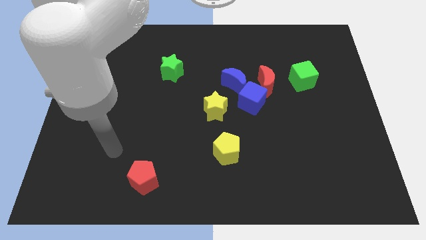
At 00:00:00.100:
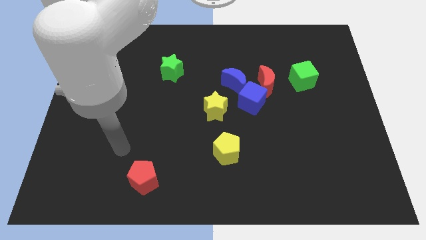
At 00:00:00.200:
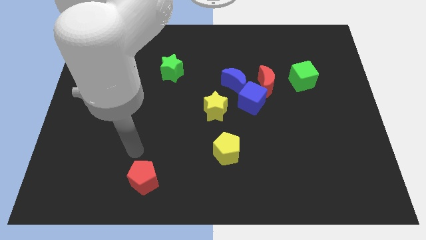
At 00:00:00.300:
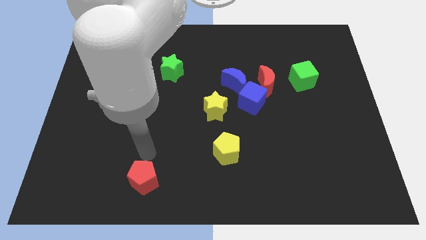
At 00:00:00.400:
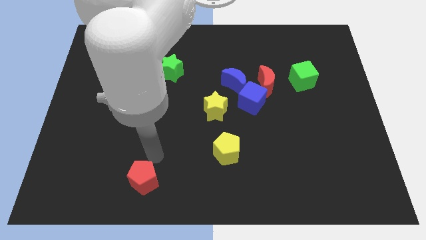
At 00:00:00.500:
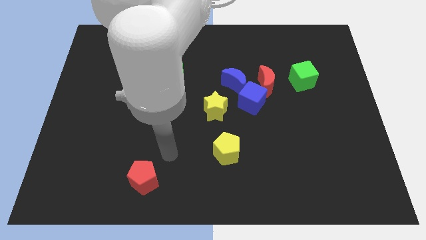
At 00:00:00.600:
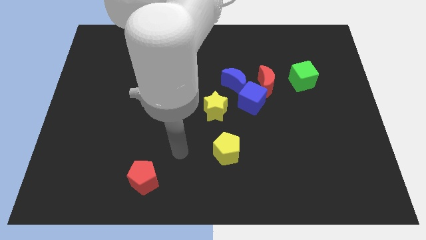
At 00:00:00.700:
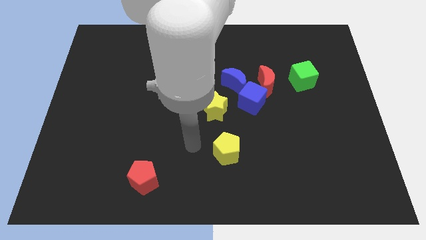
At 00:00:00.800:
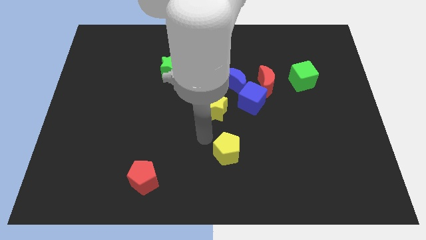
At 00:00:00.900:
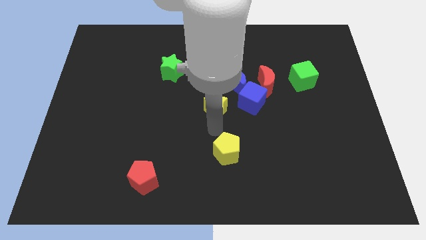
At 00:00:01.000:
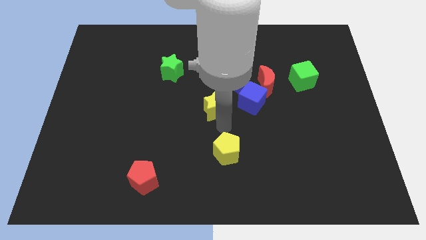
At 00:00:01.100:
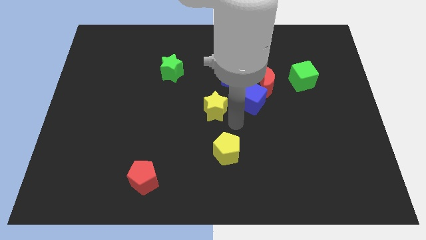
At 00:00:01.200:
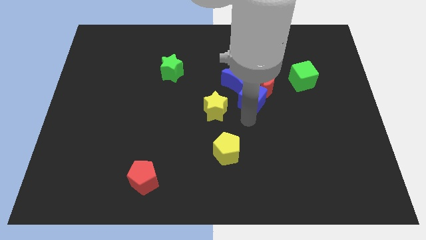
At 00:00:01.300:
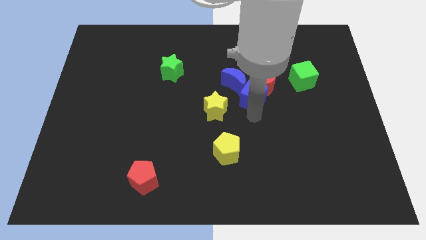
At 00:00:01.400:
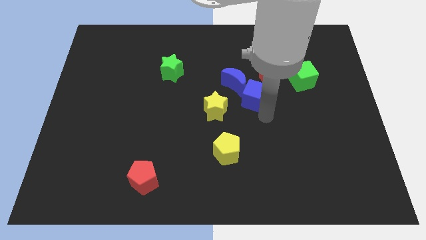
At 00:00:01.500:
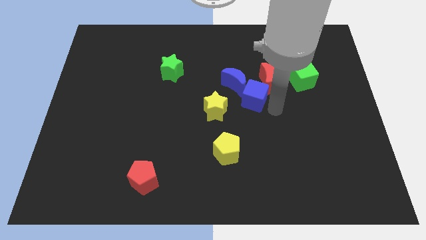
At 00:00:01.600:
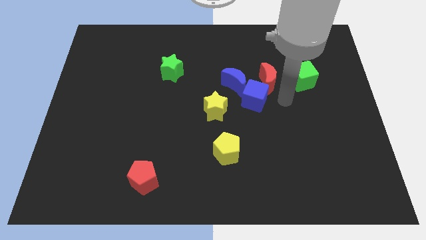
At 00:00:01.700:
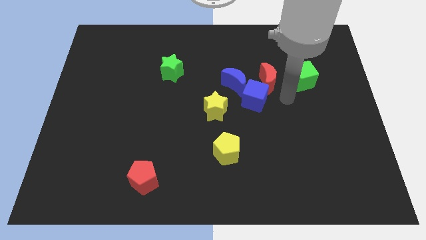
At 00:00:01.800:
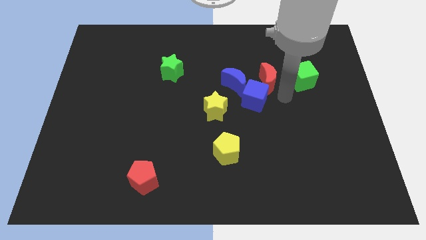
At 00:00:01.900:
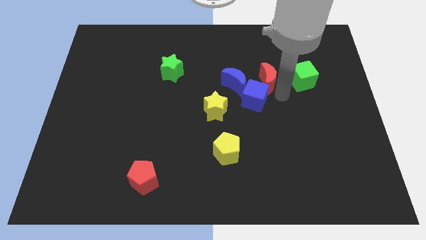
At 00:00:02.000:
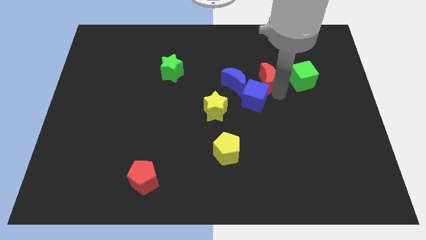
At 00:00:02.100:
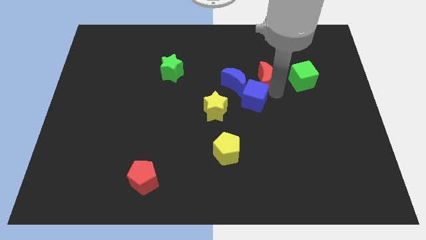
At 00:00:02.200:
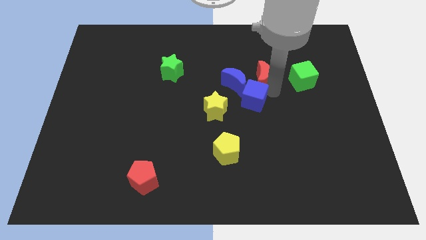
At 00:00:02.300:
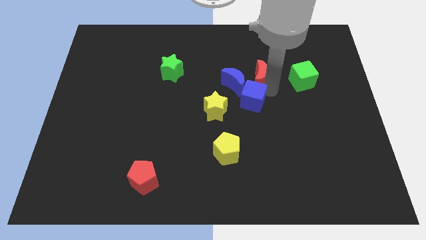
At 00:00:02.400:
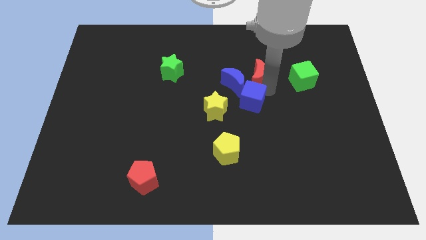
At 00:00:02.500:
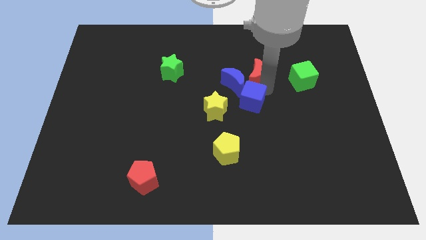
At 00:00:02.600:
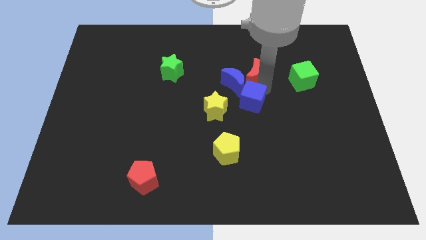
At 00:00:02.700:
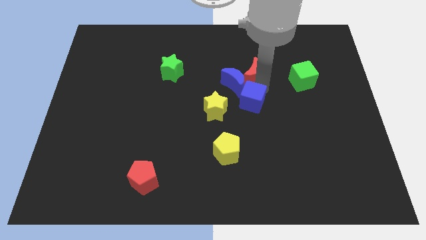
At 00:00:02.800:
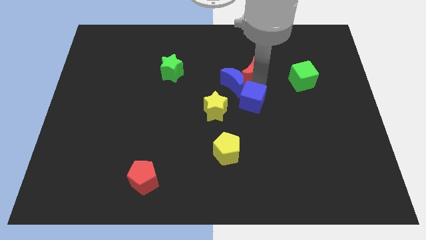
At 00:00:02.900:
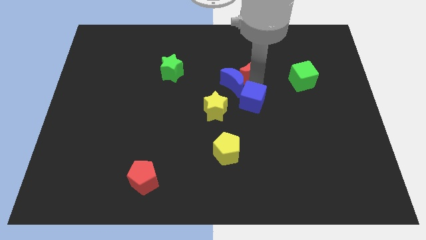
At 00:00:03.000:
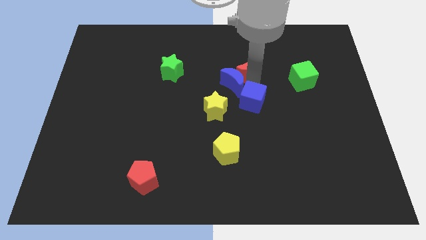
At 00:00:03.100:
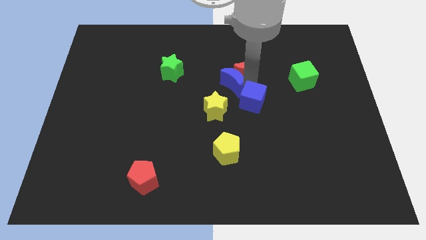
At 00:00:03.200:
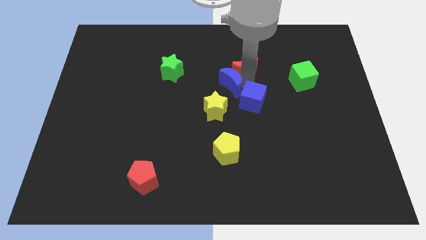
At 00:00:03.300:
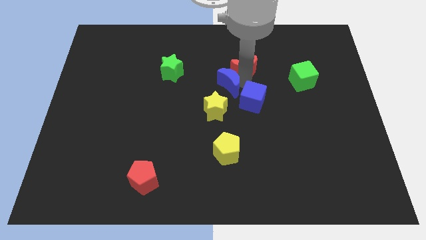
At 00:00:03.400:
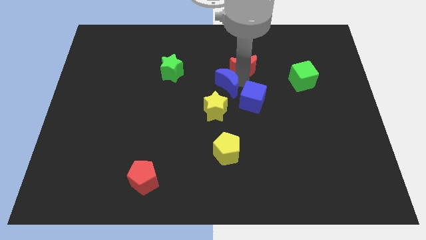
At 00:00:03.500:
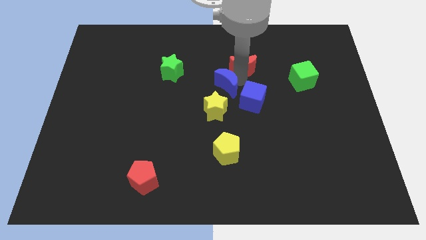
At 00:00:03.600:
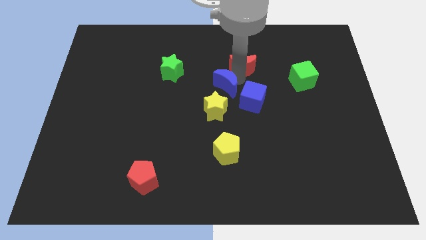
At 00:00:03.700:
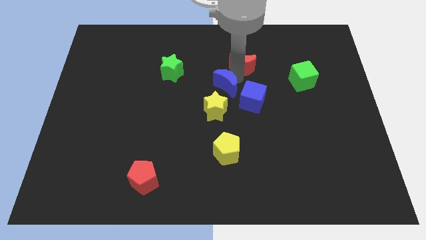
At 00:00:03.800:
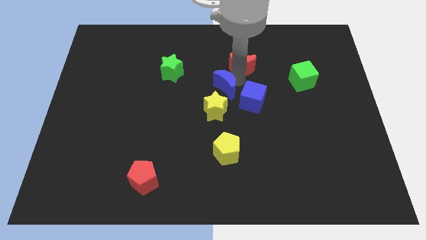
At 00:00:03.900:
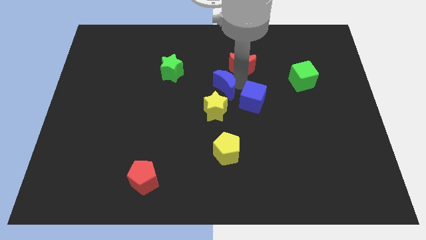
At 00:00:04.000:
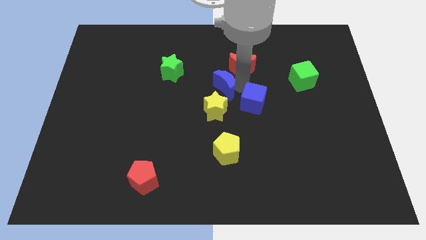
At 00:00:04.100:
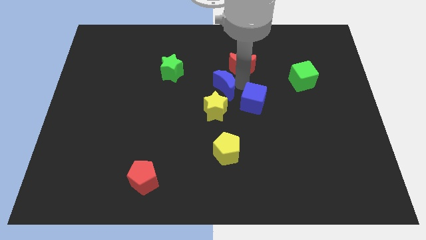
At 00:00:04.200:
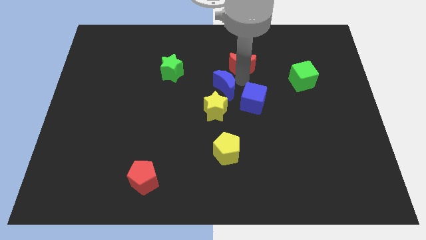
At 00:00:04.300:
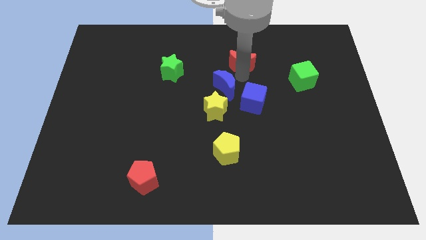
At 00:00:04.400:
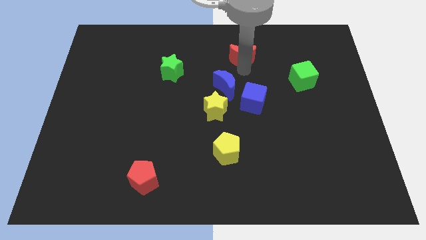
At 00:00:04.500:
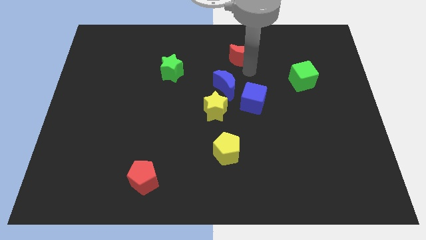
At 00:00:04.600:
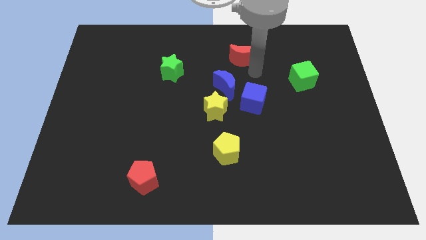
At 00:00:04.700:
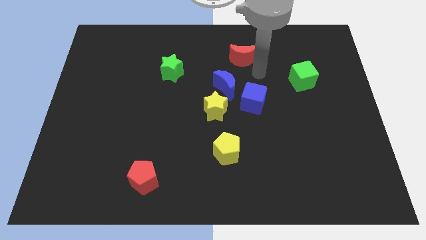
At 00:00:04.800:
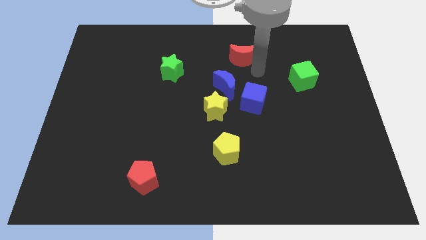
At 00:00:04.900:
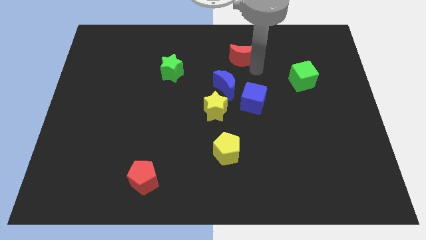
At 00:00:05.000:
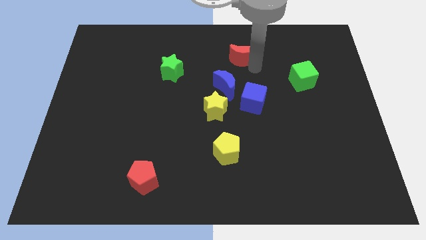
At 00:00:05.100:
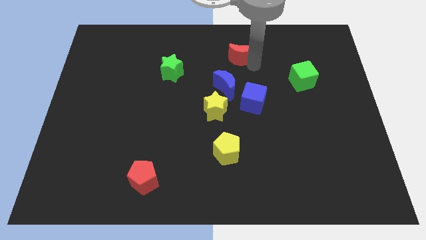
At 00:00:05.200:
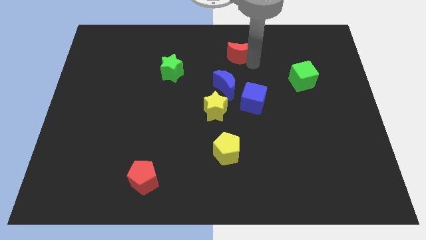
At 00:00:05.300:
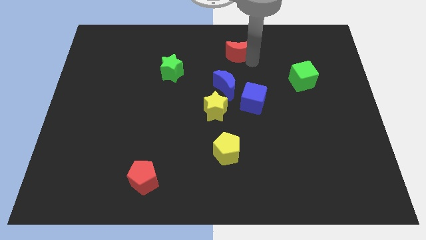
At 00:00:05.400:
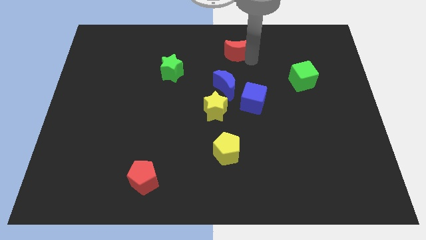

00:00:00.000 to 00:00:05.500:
move the red moon to the top

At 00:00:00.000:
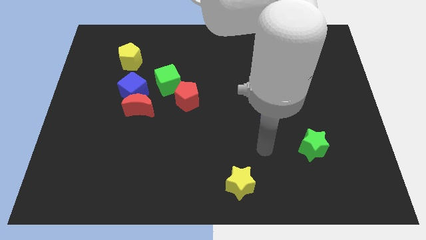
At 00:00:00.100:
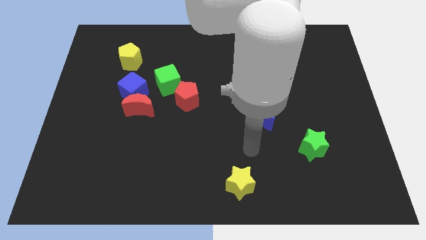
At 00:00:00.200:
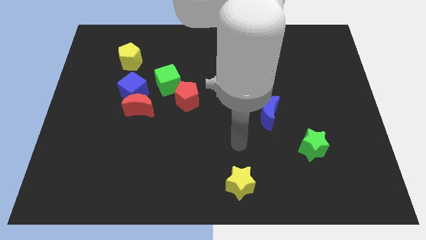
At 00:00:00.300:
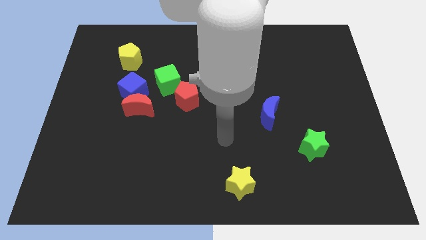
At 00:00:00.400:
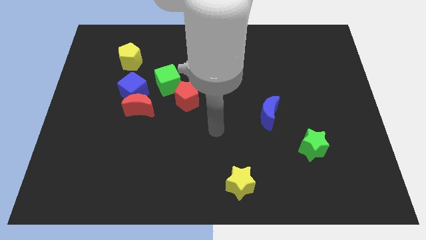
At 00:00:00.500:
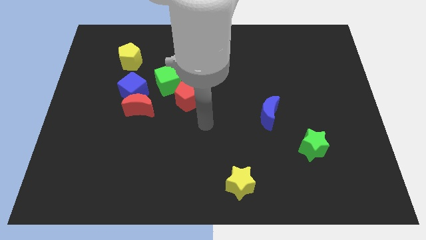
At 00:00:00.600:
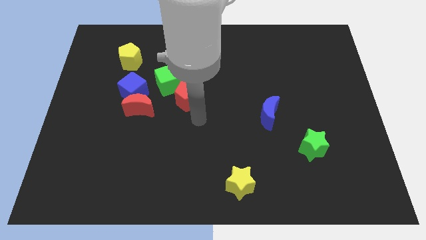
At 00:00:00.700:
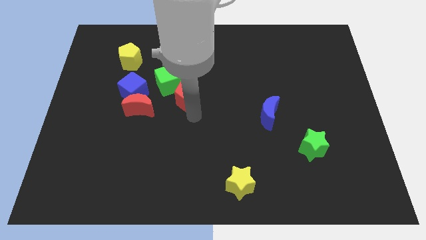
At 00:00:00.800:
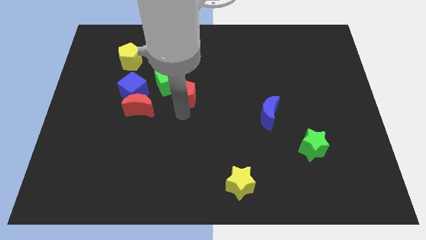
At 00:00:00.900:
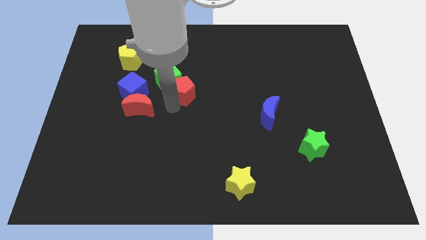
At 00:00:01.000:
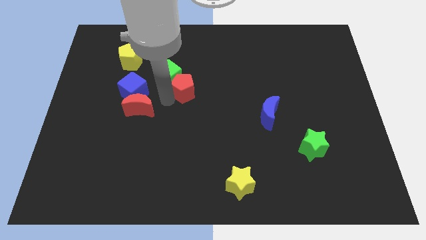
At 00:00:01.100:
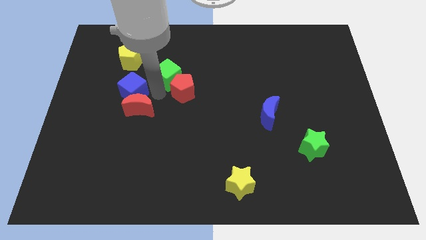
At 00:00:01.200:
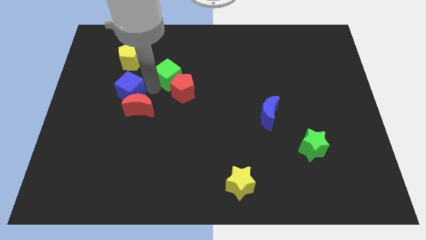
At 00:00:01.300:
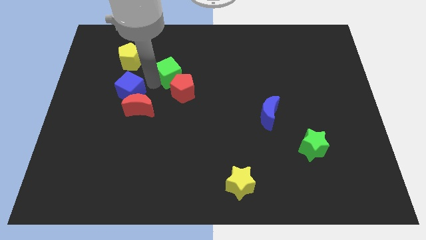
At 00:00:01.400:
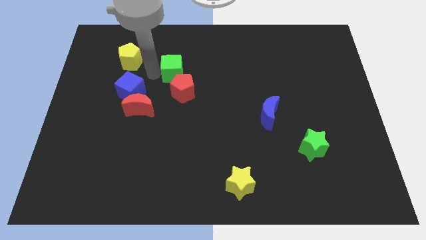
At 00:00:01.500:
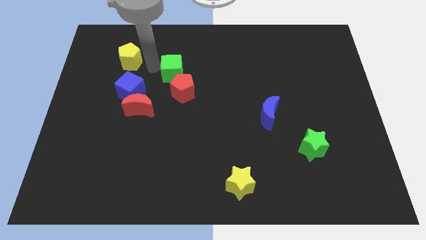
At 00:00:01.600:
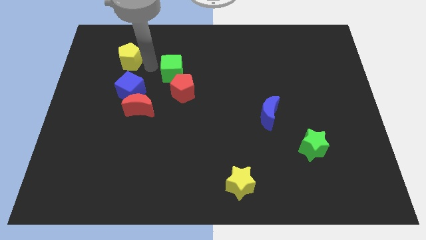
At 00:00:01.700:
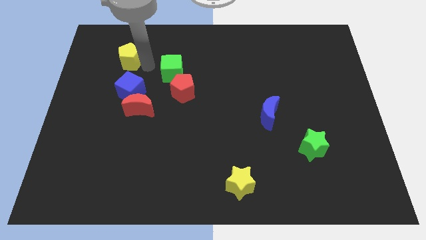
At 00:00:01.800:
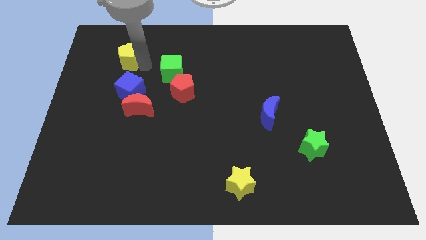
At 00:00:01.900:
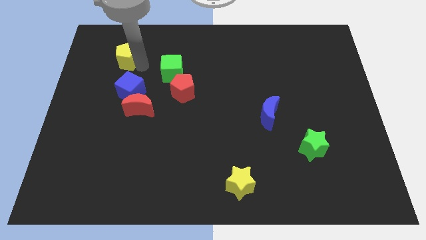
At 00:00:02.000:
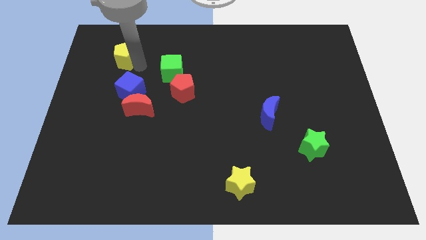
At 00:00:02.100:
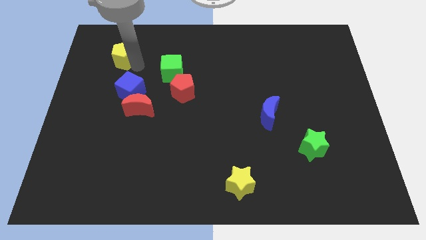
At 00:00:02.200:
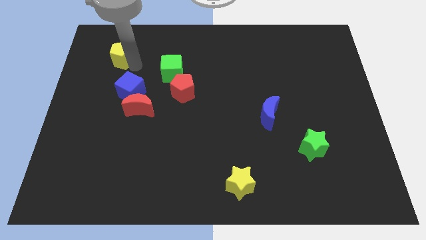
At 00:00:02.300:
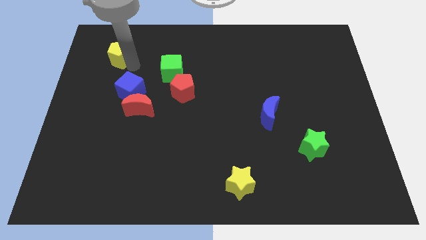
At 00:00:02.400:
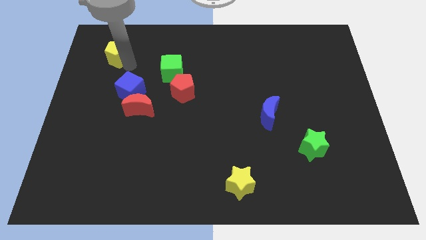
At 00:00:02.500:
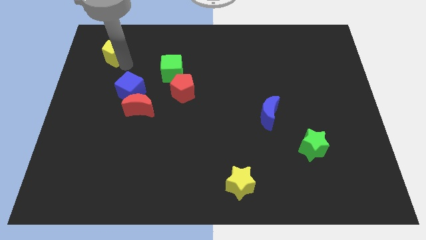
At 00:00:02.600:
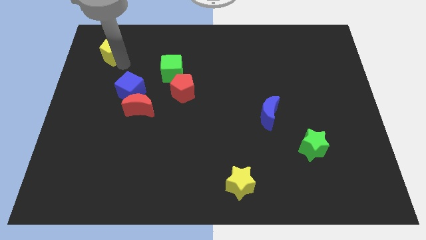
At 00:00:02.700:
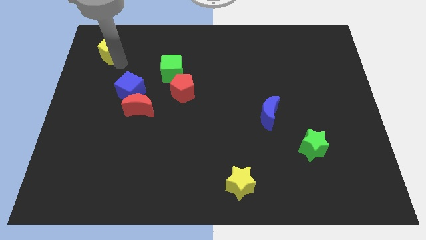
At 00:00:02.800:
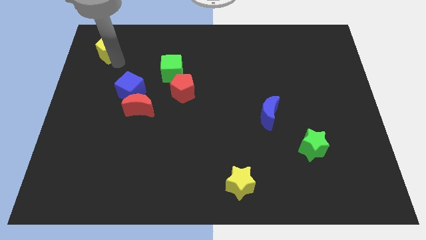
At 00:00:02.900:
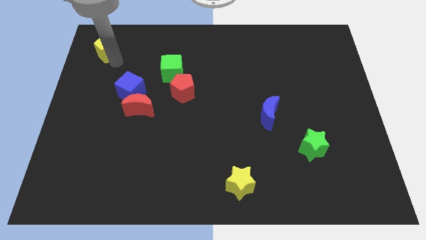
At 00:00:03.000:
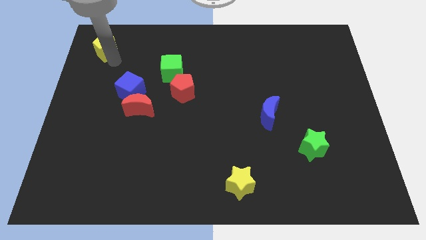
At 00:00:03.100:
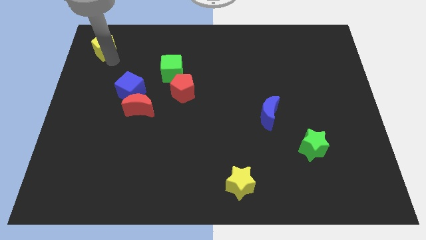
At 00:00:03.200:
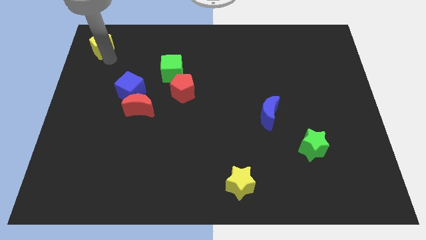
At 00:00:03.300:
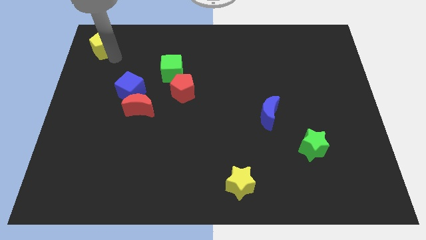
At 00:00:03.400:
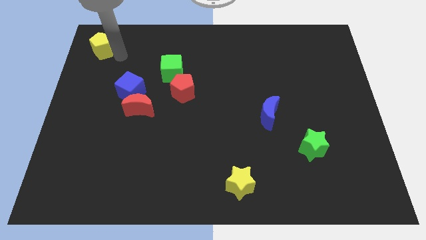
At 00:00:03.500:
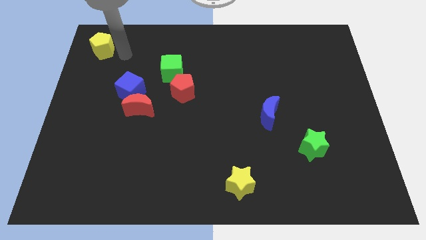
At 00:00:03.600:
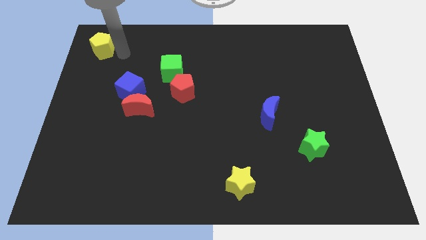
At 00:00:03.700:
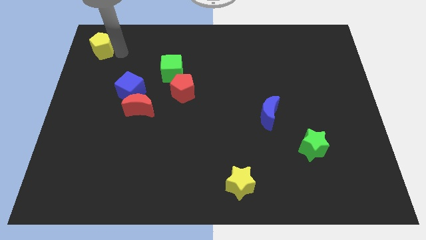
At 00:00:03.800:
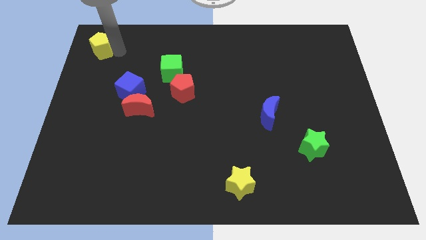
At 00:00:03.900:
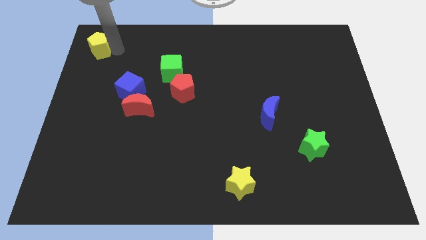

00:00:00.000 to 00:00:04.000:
put the yellow pentagon to the top left
